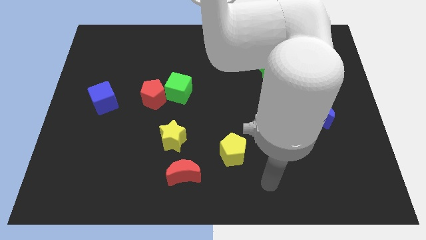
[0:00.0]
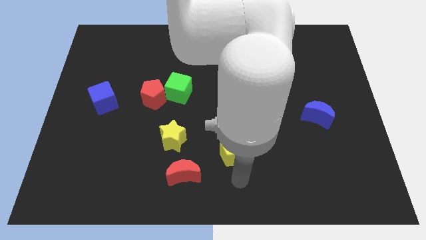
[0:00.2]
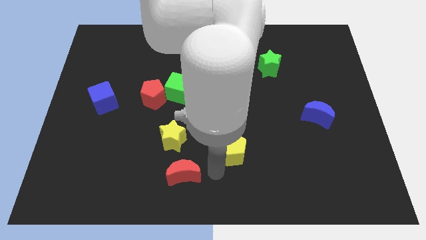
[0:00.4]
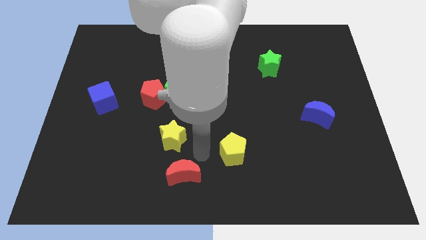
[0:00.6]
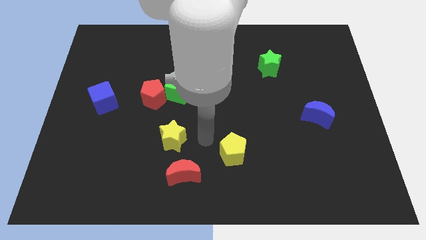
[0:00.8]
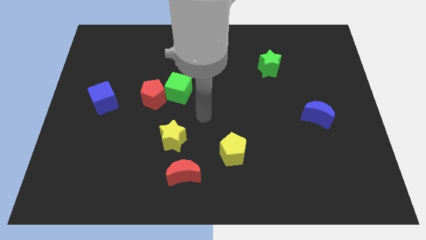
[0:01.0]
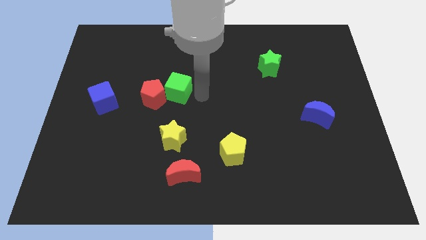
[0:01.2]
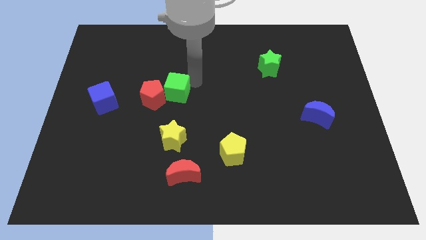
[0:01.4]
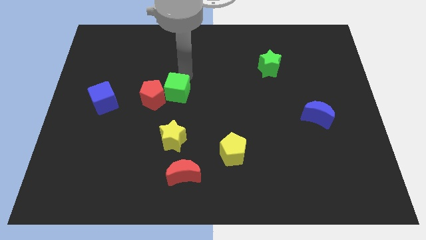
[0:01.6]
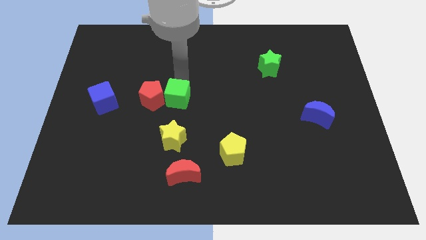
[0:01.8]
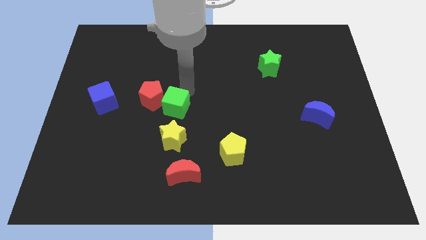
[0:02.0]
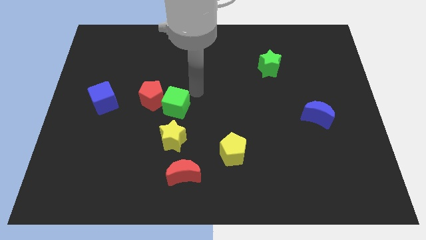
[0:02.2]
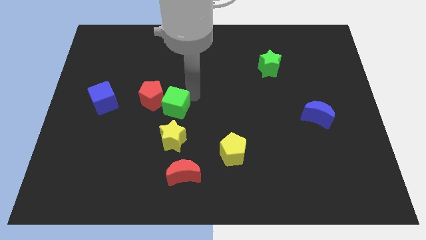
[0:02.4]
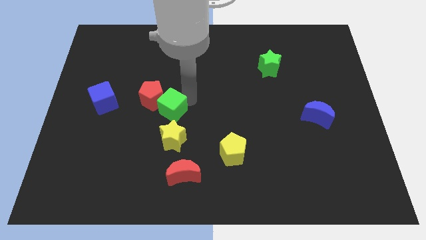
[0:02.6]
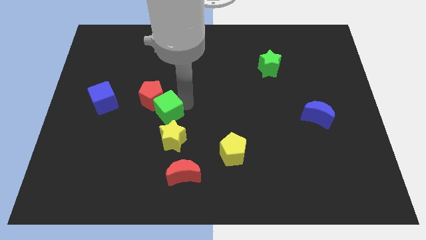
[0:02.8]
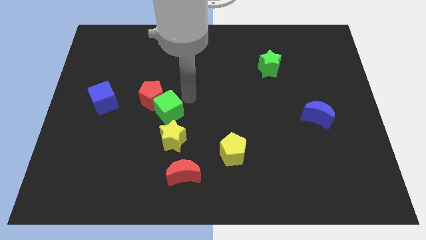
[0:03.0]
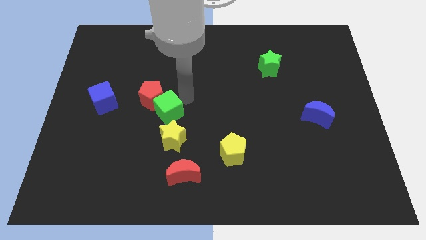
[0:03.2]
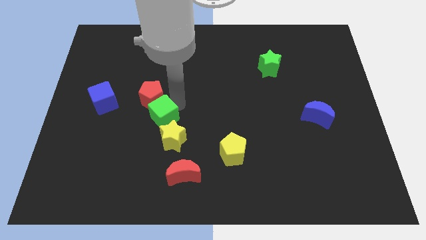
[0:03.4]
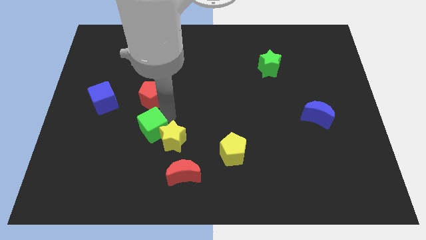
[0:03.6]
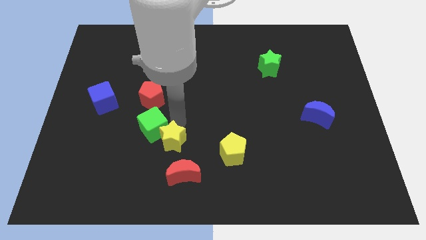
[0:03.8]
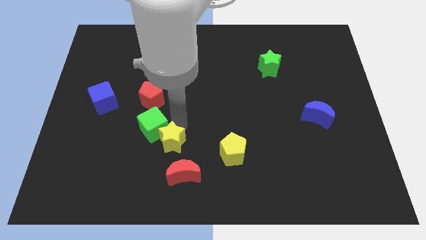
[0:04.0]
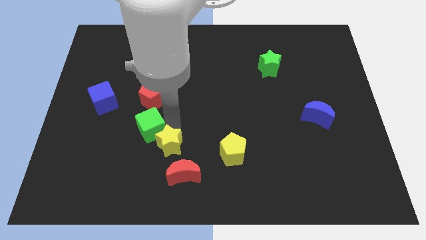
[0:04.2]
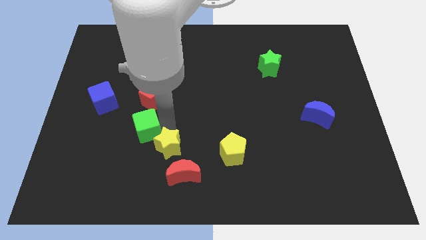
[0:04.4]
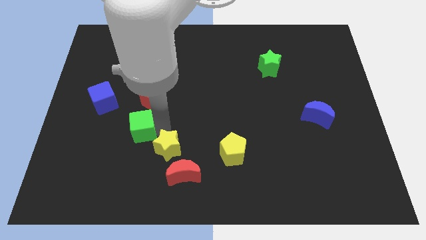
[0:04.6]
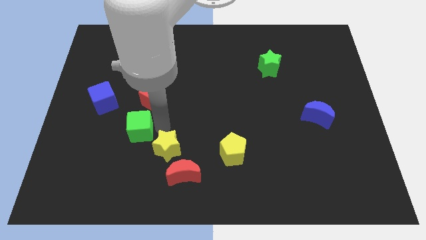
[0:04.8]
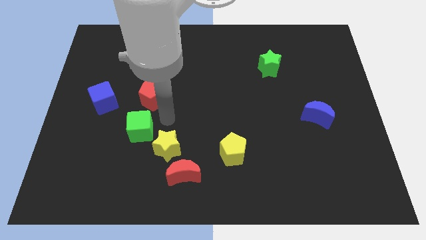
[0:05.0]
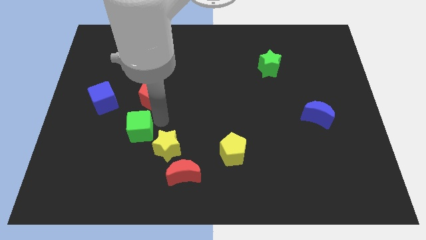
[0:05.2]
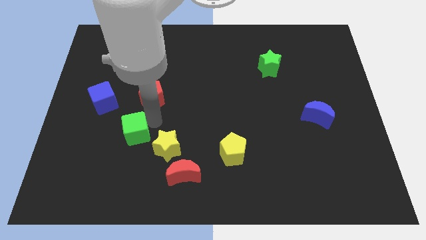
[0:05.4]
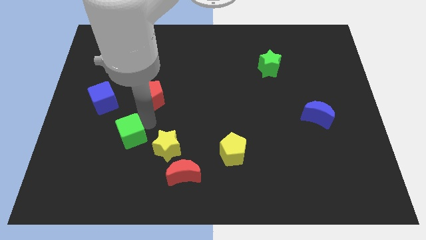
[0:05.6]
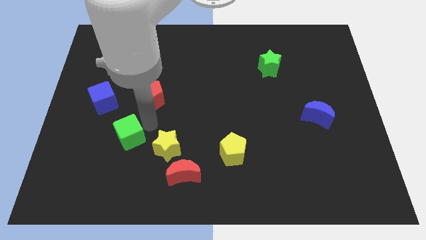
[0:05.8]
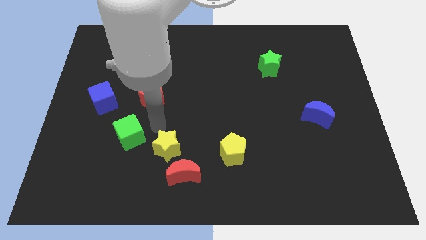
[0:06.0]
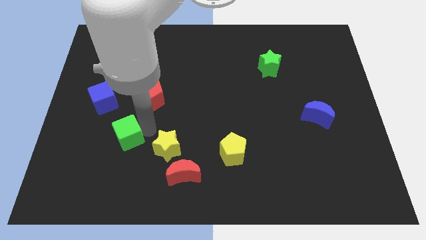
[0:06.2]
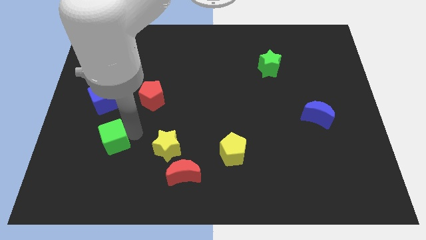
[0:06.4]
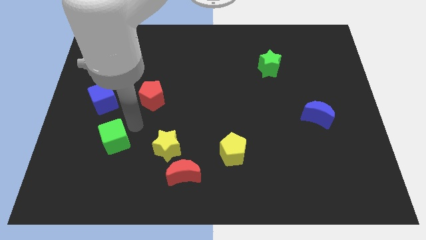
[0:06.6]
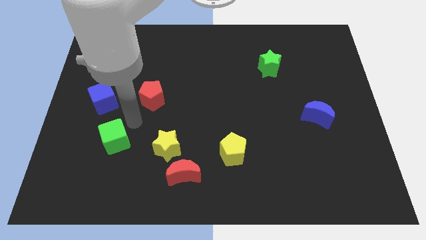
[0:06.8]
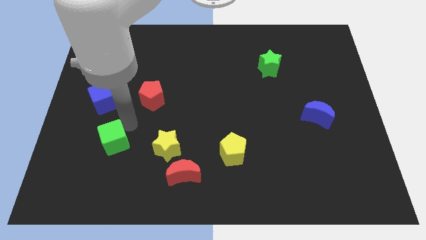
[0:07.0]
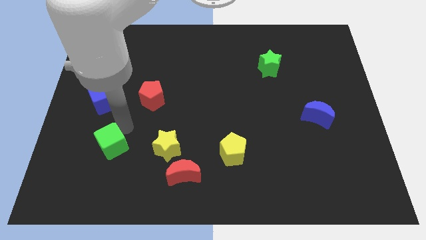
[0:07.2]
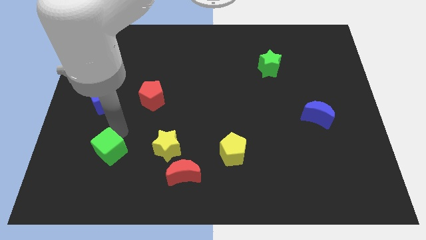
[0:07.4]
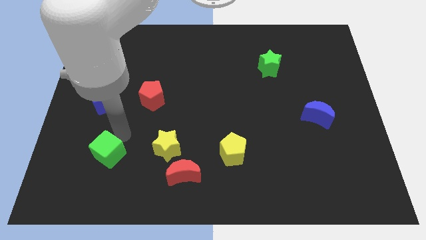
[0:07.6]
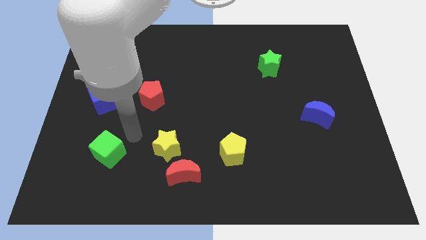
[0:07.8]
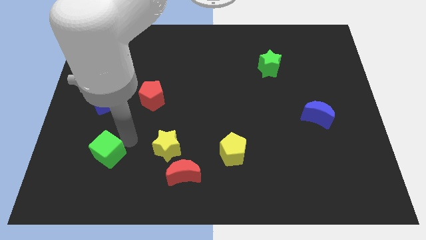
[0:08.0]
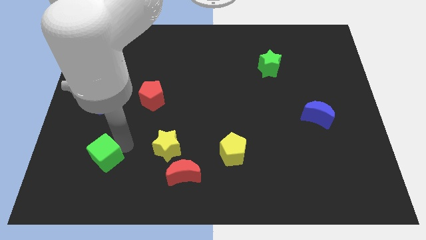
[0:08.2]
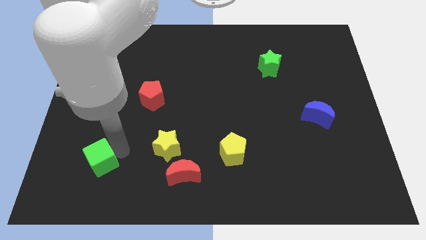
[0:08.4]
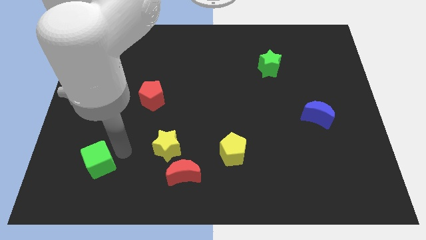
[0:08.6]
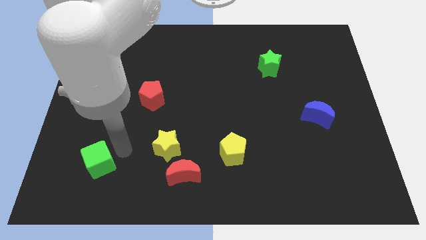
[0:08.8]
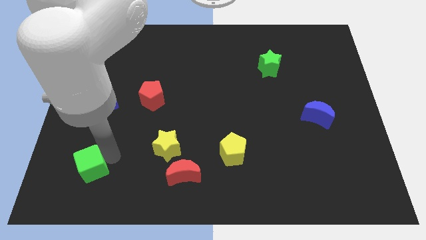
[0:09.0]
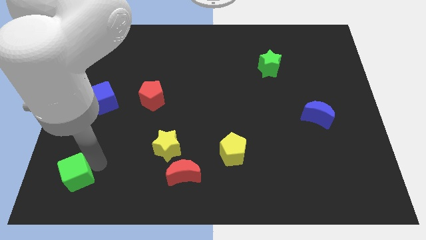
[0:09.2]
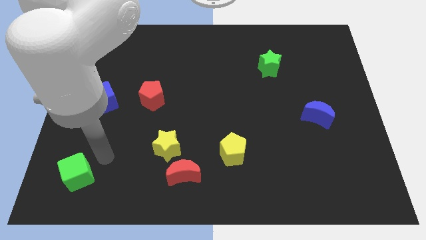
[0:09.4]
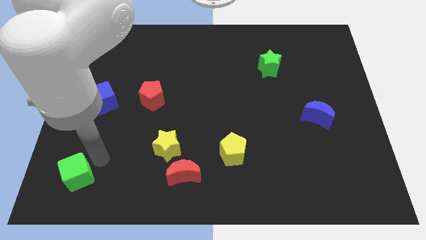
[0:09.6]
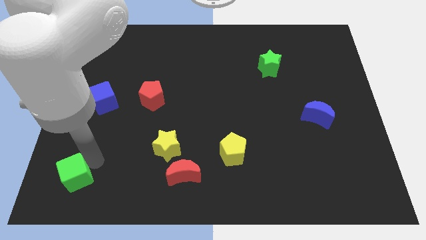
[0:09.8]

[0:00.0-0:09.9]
move the green cube to the bottom left corner
